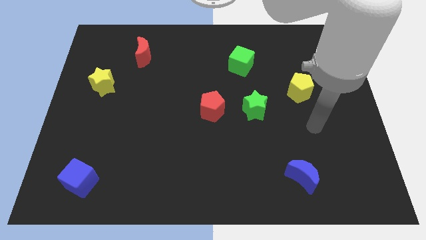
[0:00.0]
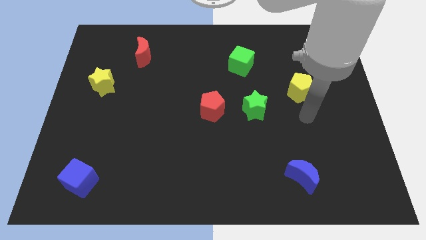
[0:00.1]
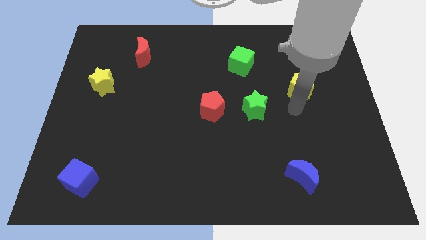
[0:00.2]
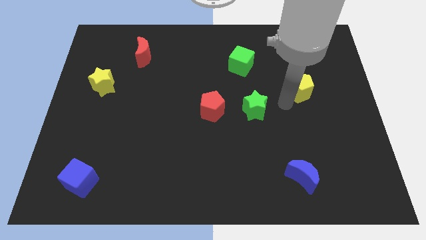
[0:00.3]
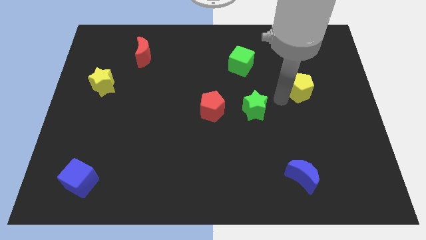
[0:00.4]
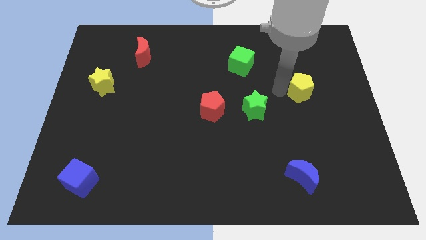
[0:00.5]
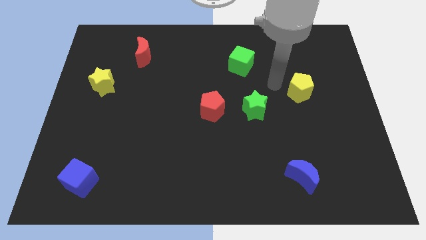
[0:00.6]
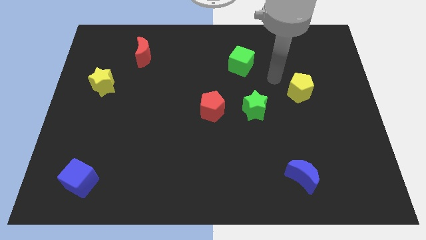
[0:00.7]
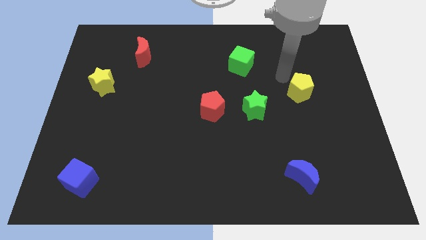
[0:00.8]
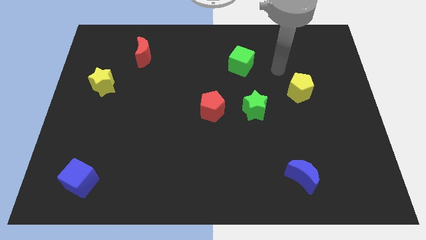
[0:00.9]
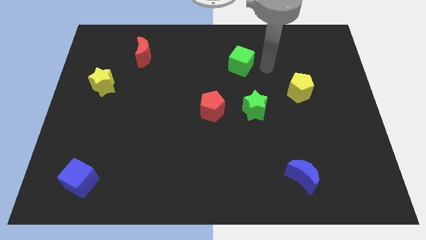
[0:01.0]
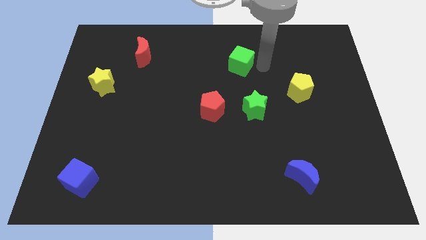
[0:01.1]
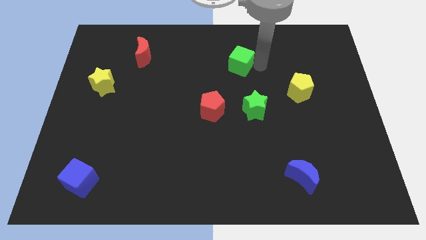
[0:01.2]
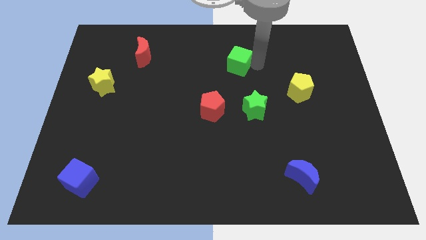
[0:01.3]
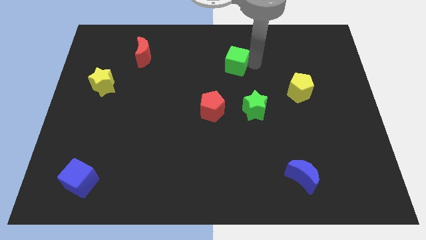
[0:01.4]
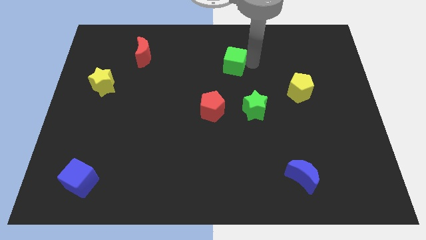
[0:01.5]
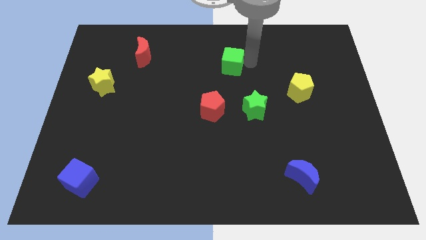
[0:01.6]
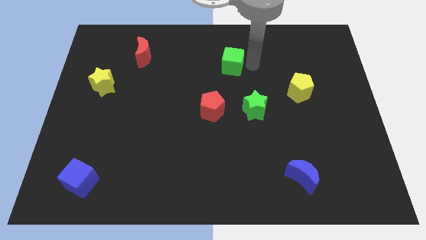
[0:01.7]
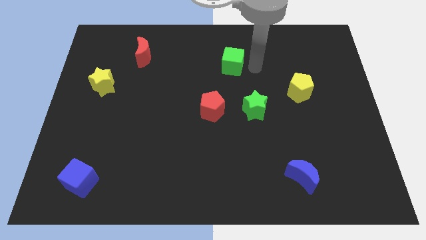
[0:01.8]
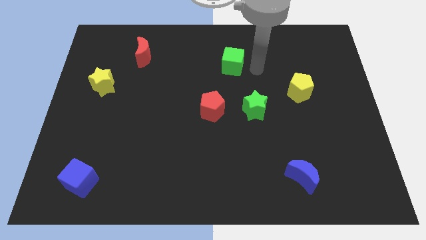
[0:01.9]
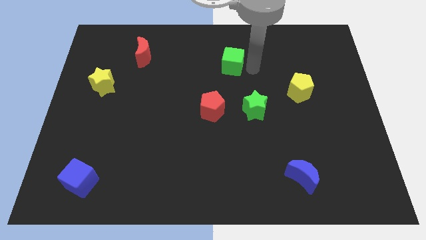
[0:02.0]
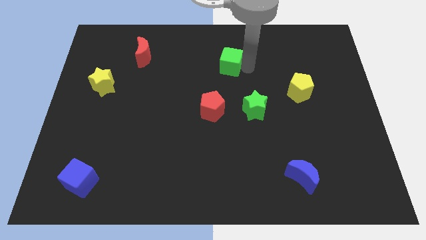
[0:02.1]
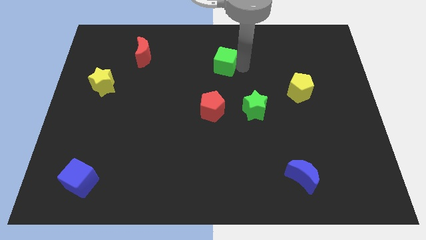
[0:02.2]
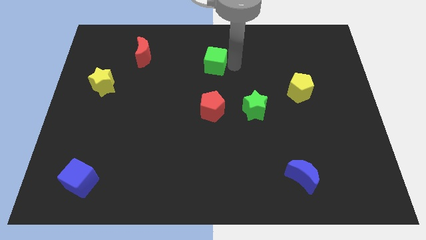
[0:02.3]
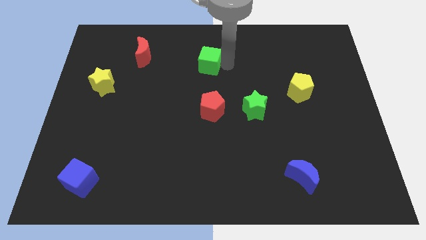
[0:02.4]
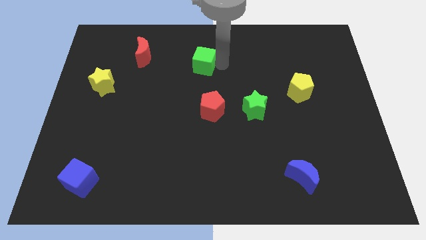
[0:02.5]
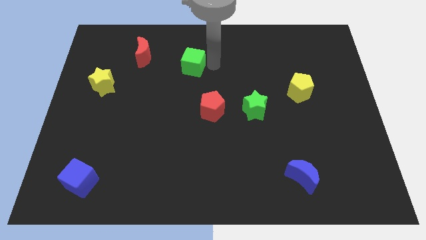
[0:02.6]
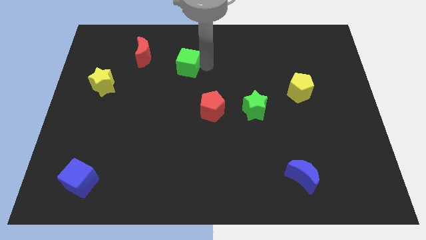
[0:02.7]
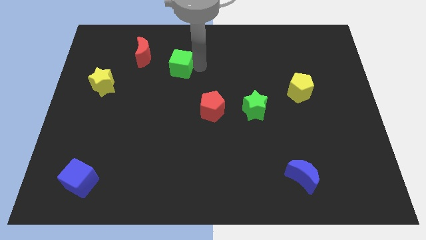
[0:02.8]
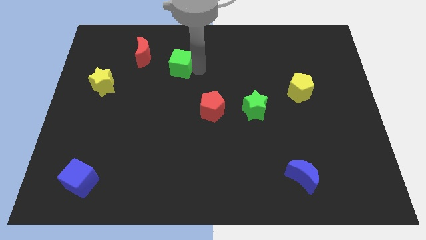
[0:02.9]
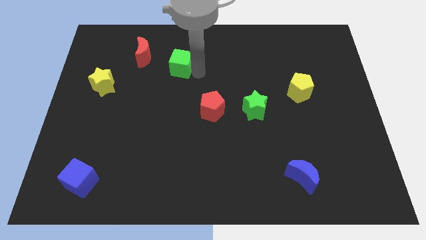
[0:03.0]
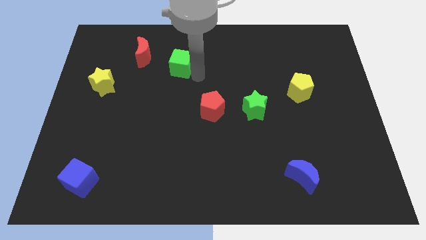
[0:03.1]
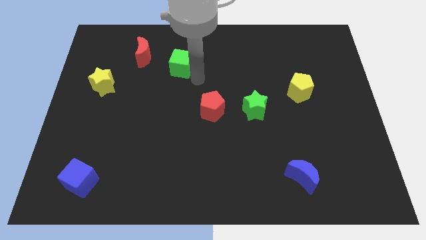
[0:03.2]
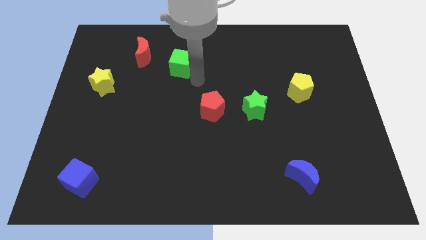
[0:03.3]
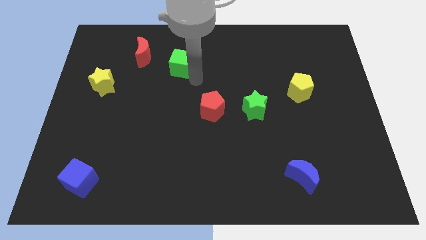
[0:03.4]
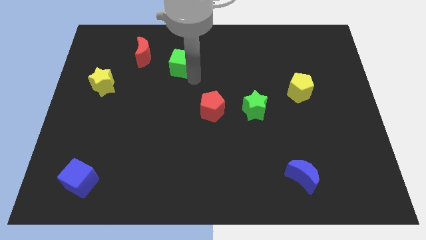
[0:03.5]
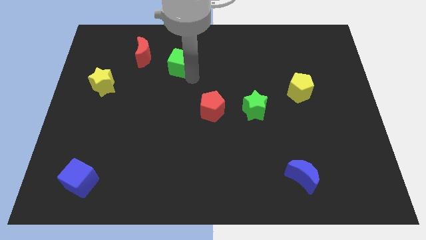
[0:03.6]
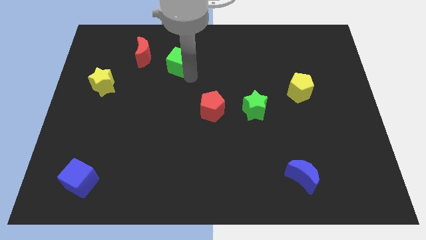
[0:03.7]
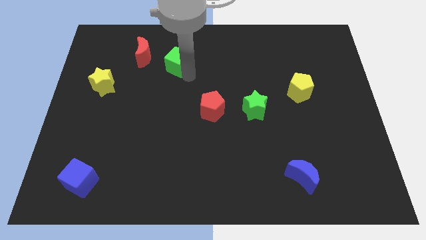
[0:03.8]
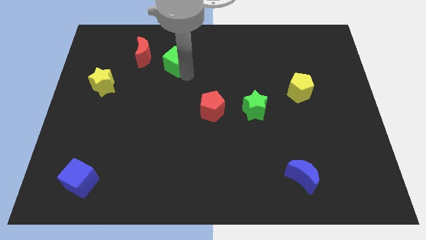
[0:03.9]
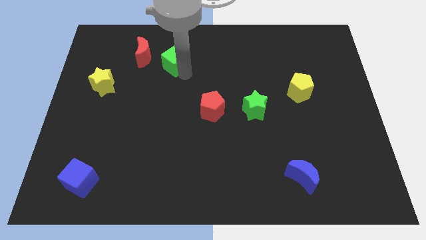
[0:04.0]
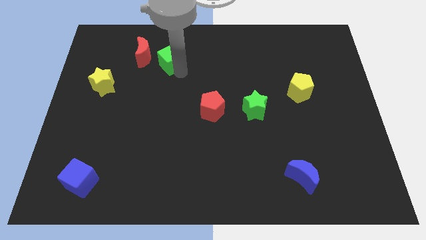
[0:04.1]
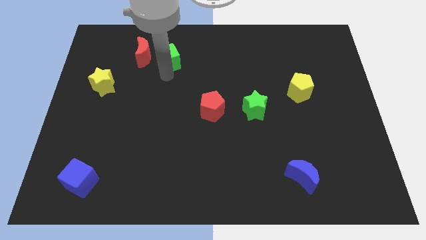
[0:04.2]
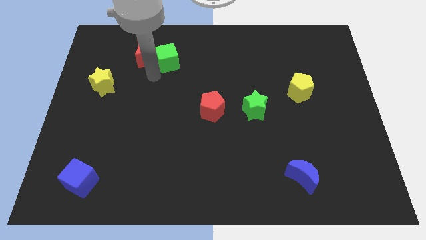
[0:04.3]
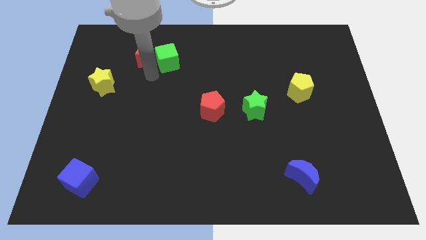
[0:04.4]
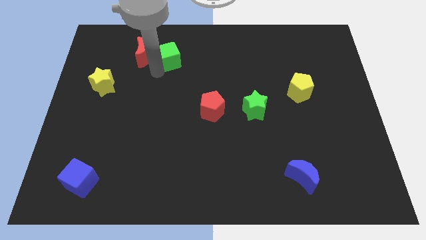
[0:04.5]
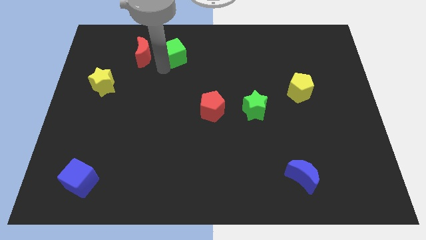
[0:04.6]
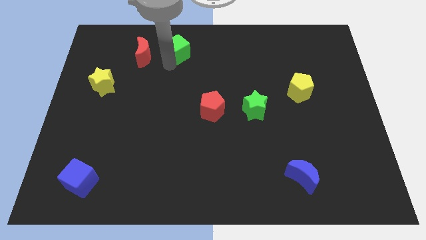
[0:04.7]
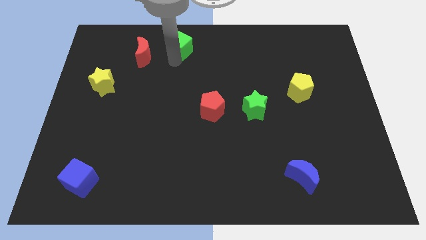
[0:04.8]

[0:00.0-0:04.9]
put the green cube to the towards your base

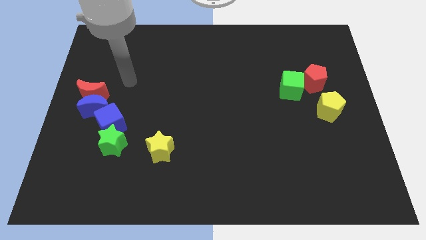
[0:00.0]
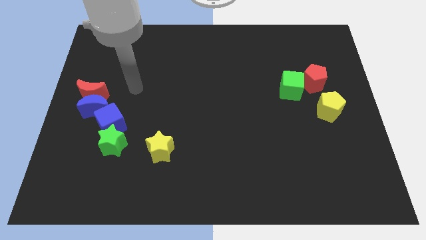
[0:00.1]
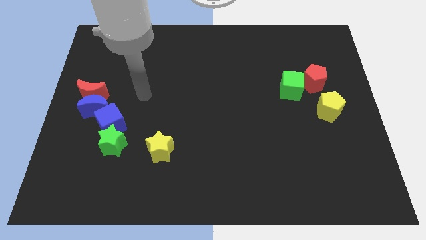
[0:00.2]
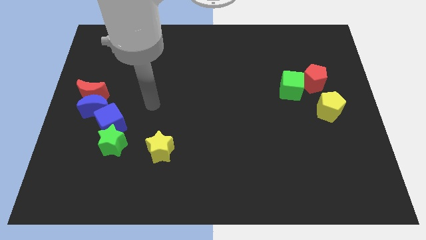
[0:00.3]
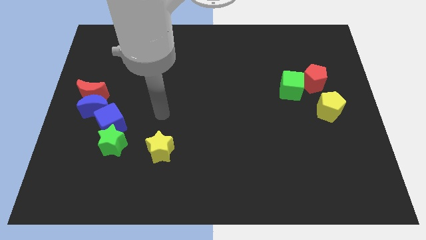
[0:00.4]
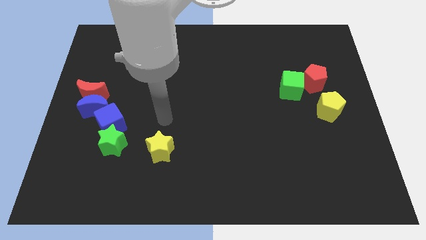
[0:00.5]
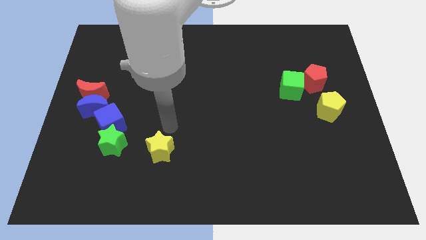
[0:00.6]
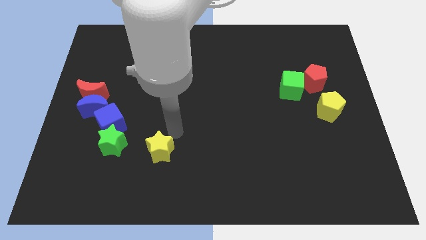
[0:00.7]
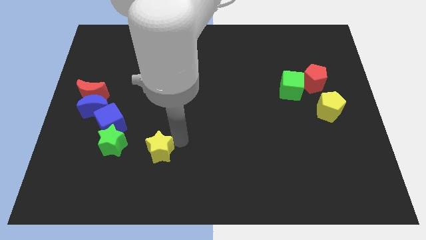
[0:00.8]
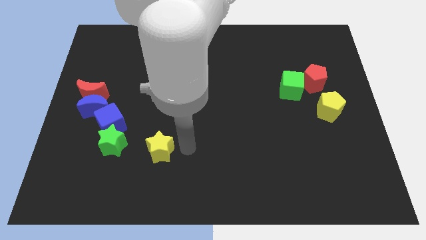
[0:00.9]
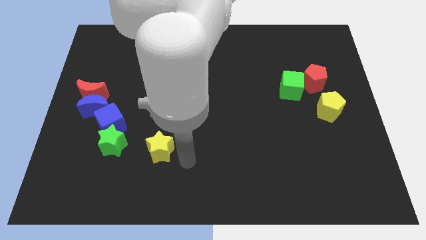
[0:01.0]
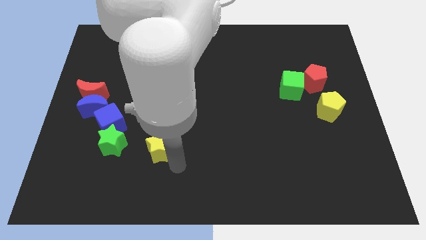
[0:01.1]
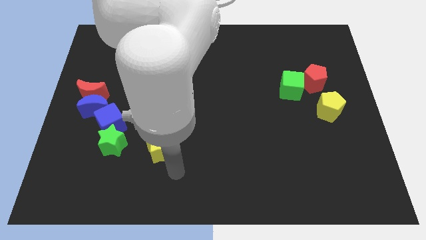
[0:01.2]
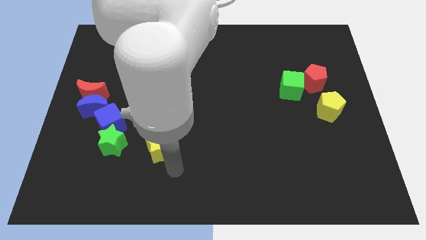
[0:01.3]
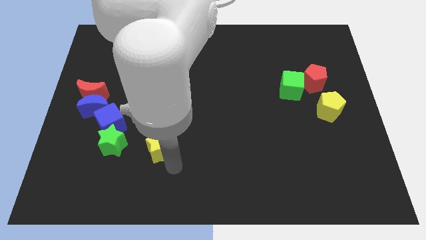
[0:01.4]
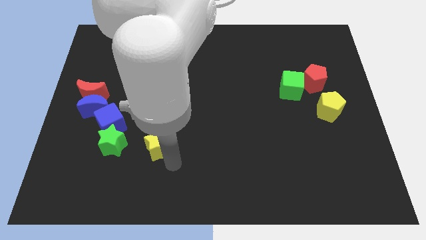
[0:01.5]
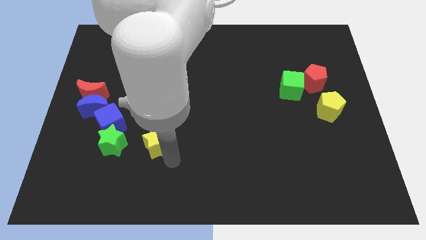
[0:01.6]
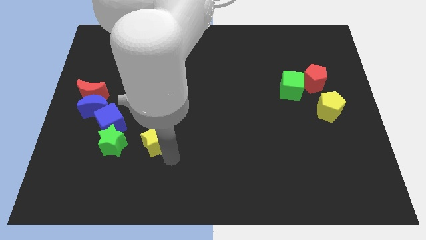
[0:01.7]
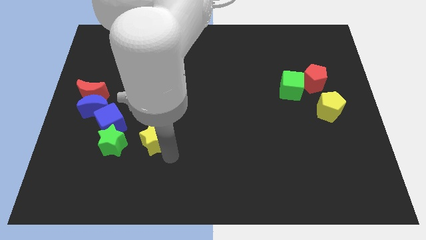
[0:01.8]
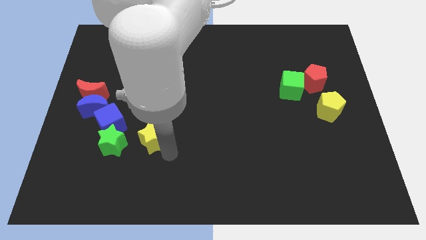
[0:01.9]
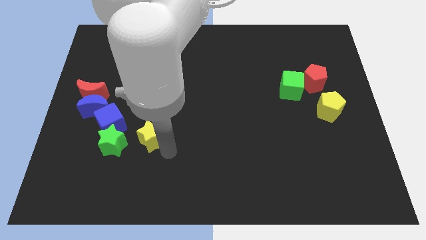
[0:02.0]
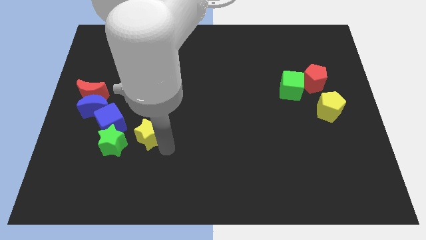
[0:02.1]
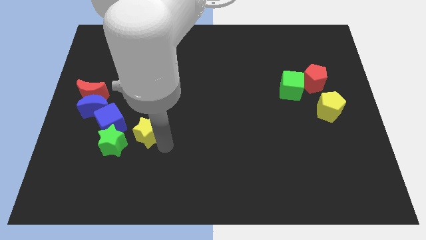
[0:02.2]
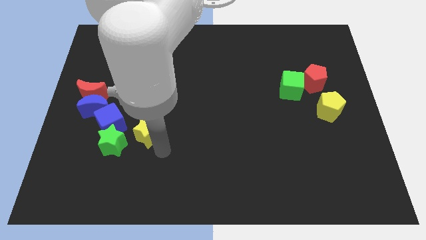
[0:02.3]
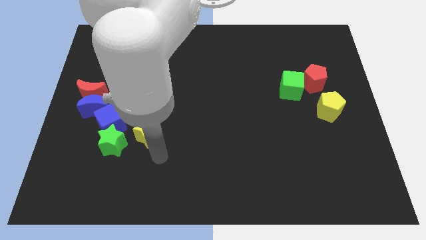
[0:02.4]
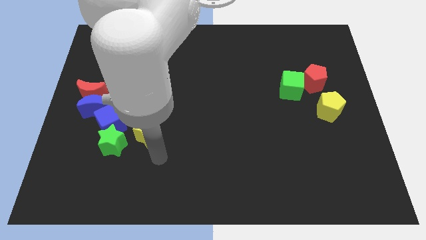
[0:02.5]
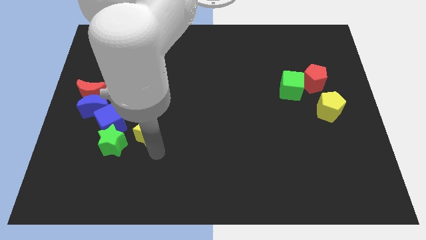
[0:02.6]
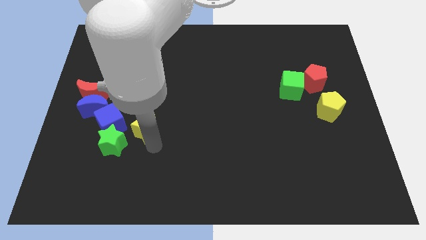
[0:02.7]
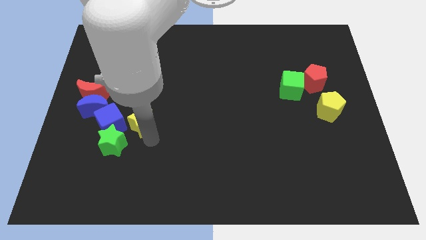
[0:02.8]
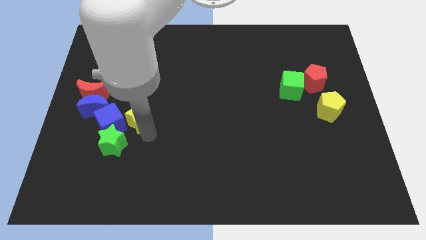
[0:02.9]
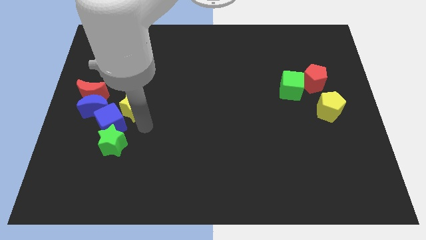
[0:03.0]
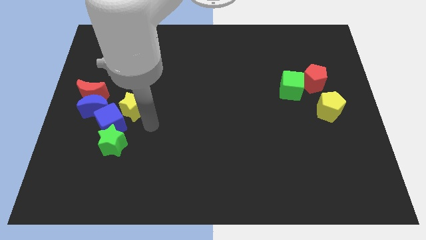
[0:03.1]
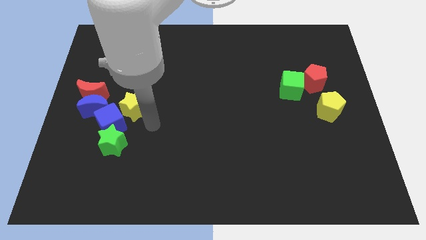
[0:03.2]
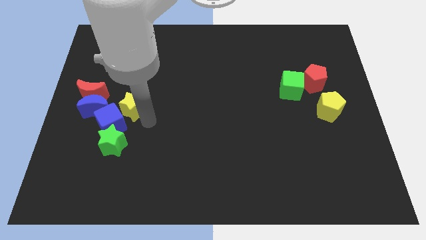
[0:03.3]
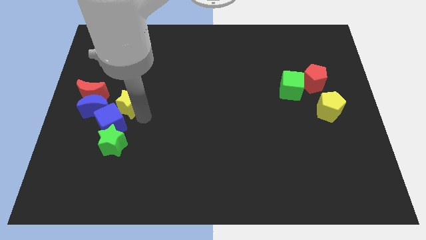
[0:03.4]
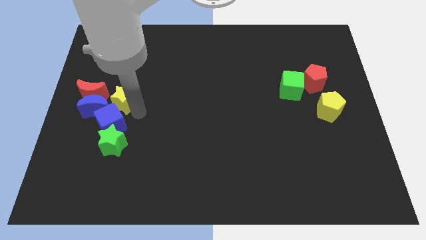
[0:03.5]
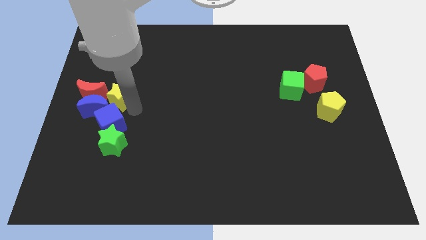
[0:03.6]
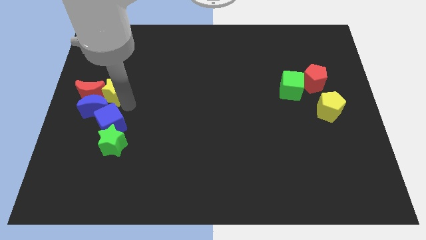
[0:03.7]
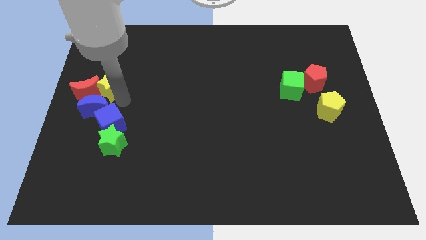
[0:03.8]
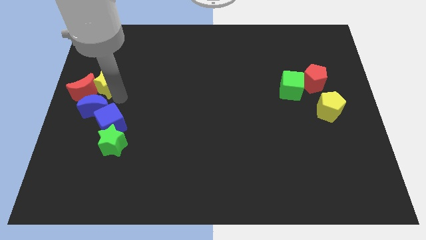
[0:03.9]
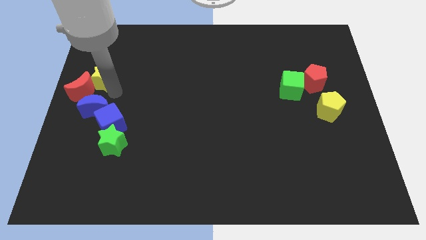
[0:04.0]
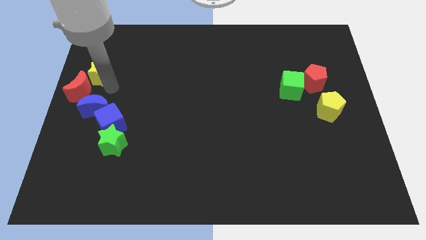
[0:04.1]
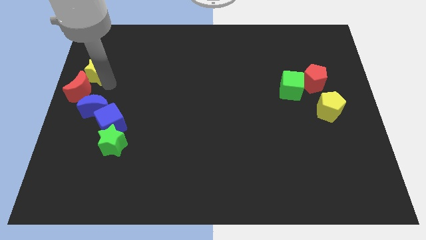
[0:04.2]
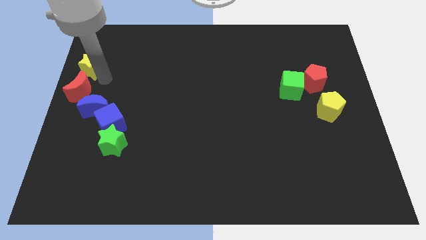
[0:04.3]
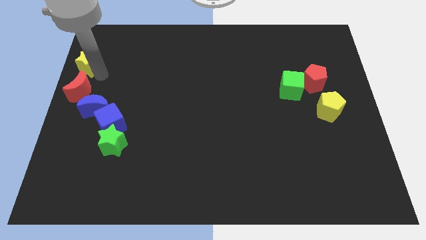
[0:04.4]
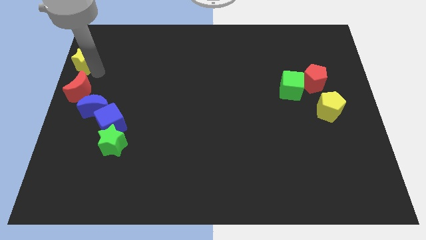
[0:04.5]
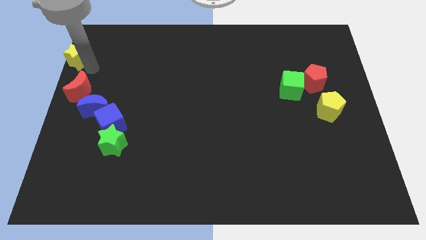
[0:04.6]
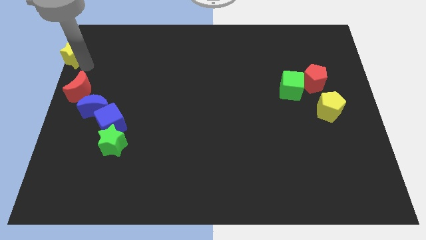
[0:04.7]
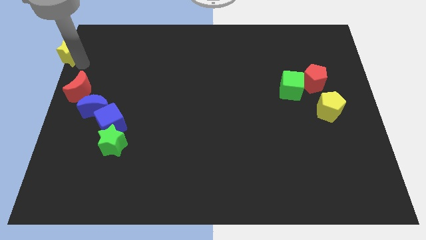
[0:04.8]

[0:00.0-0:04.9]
push the yellow star to the top left corner
